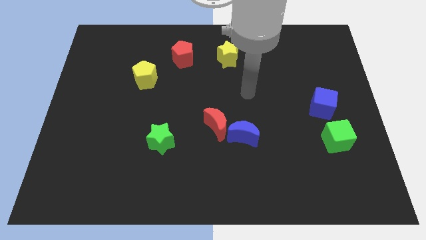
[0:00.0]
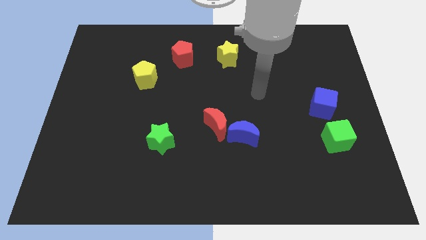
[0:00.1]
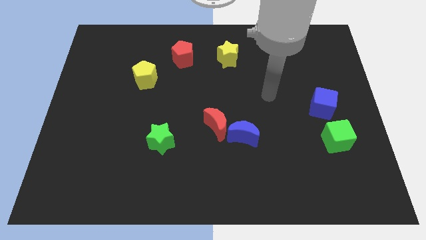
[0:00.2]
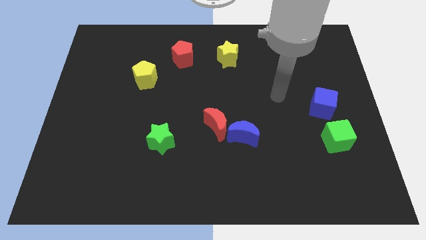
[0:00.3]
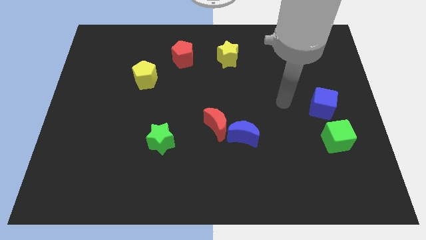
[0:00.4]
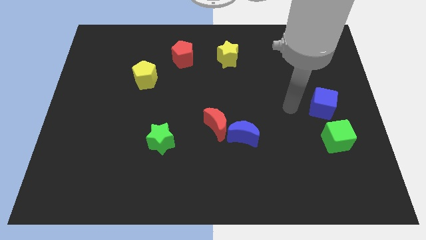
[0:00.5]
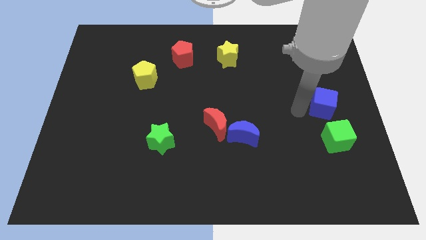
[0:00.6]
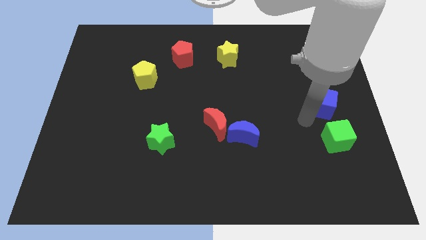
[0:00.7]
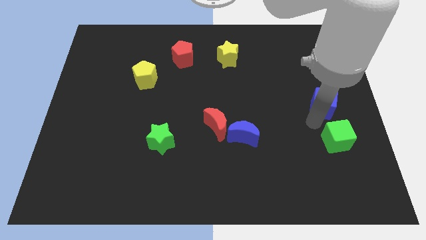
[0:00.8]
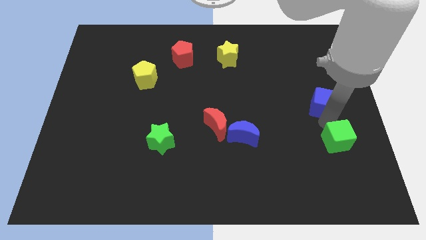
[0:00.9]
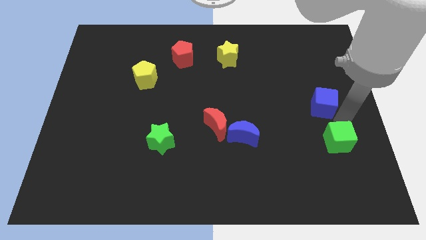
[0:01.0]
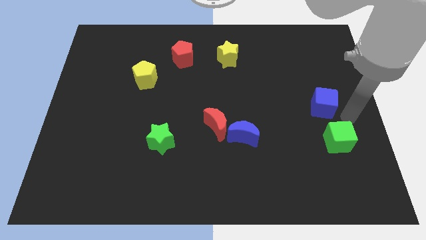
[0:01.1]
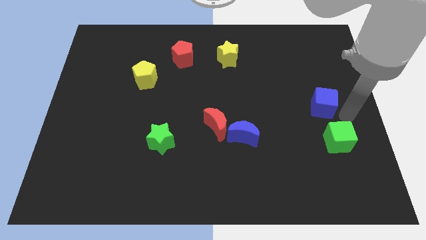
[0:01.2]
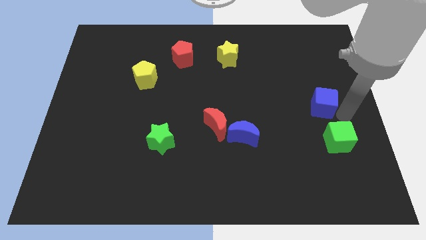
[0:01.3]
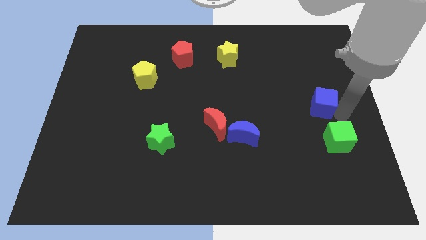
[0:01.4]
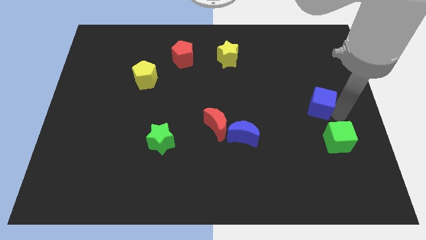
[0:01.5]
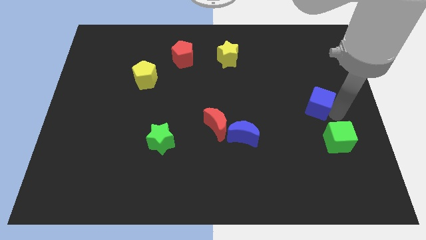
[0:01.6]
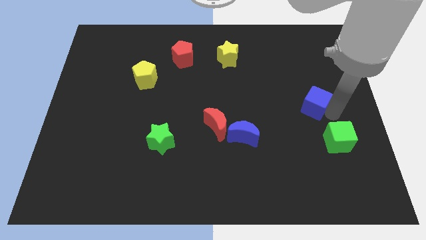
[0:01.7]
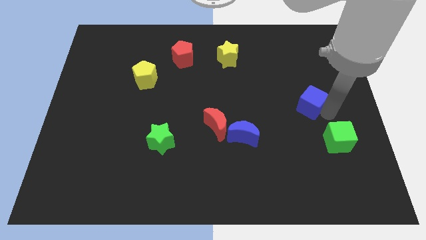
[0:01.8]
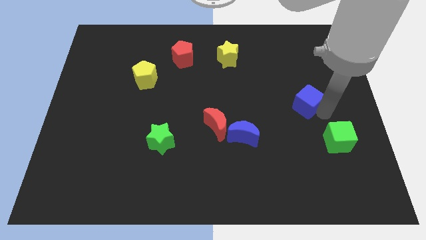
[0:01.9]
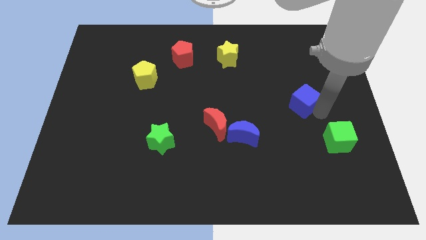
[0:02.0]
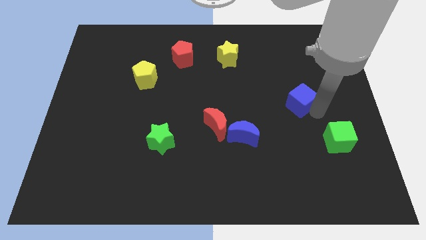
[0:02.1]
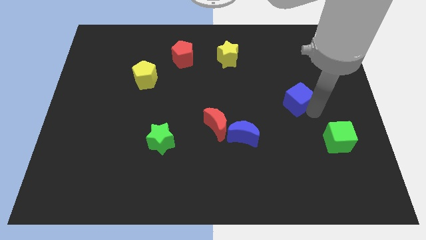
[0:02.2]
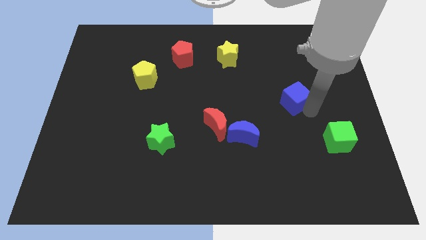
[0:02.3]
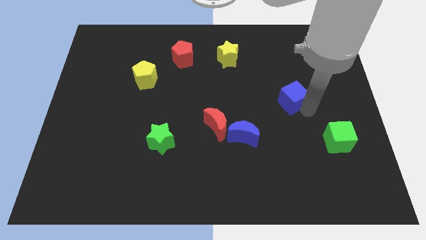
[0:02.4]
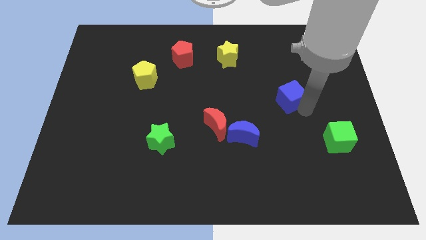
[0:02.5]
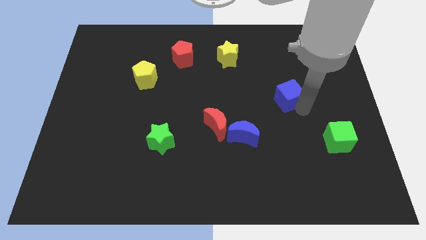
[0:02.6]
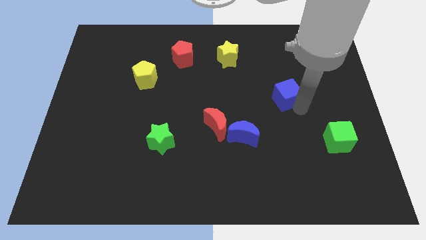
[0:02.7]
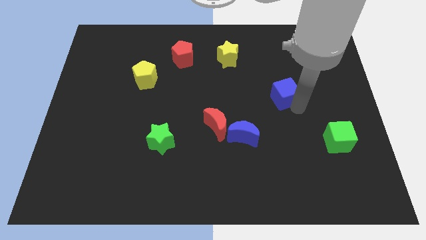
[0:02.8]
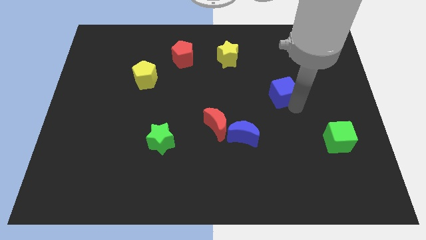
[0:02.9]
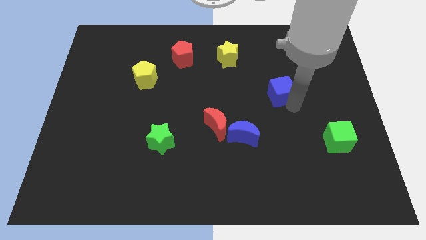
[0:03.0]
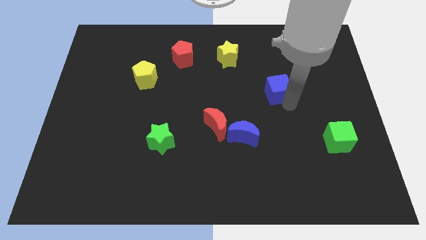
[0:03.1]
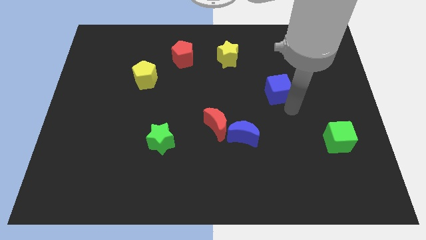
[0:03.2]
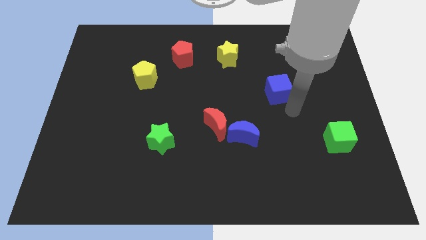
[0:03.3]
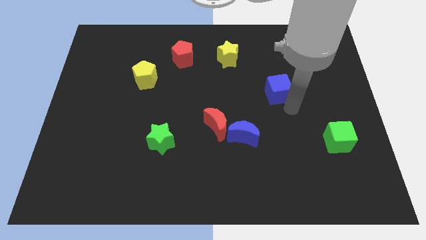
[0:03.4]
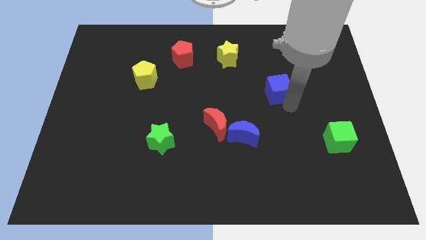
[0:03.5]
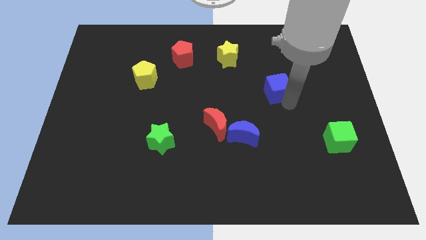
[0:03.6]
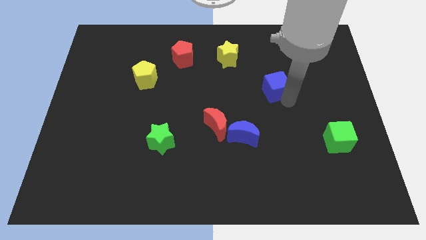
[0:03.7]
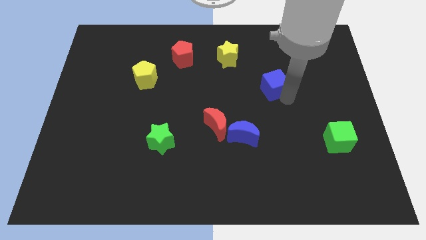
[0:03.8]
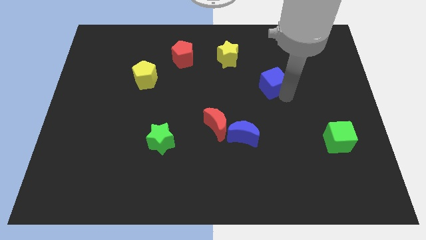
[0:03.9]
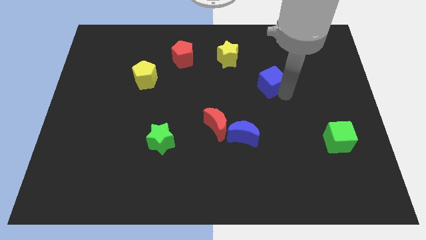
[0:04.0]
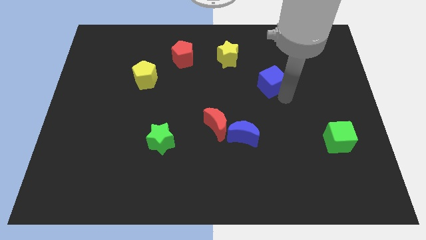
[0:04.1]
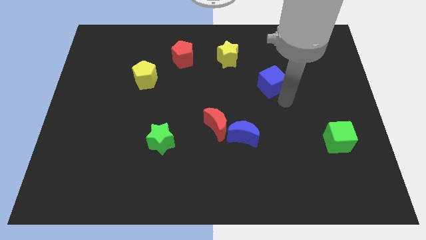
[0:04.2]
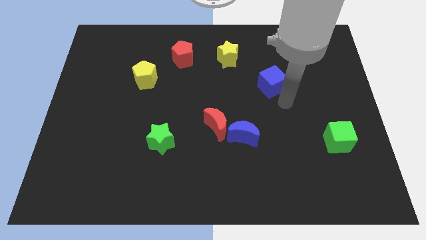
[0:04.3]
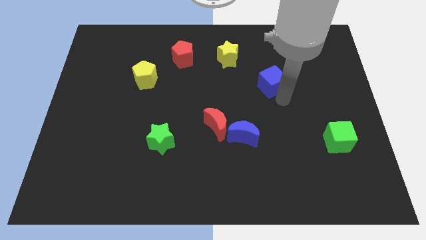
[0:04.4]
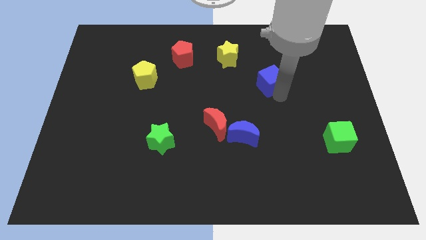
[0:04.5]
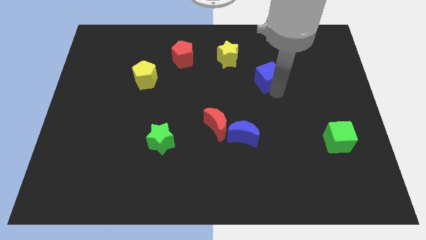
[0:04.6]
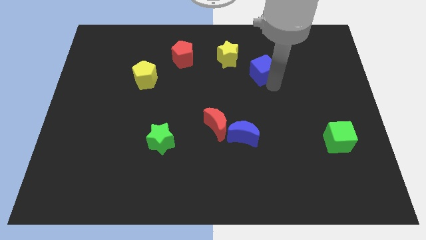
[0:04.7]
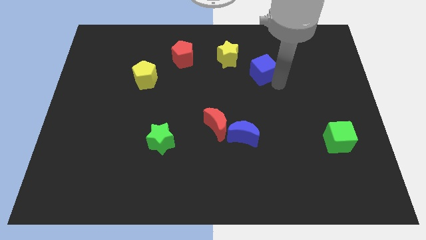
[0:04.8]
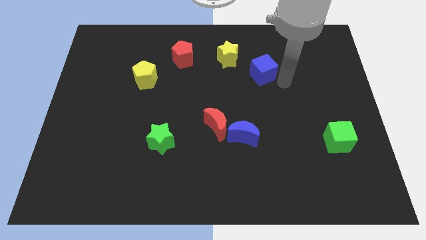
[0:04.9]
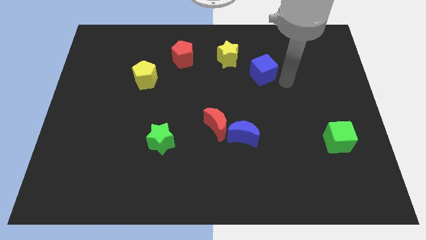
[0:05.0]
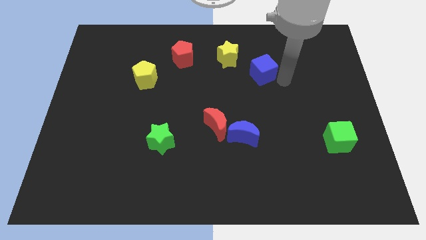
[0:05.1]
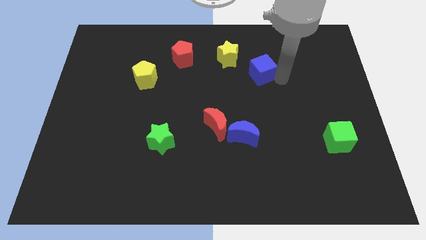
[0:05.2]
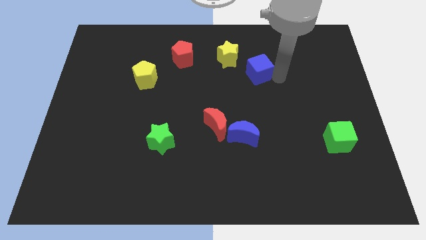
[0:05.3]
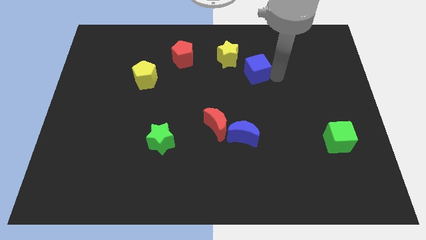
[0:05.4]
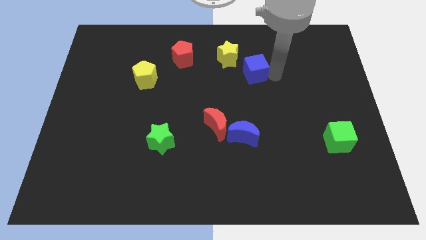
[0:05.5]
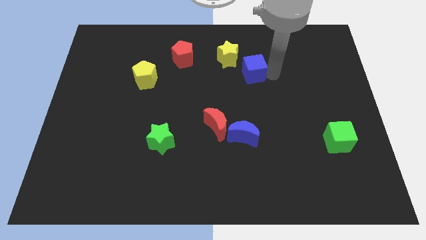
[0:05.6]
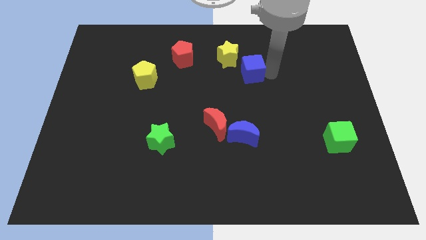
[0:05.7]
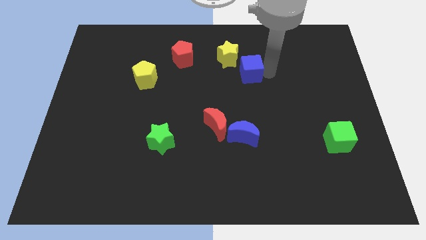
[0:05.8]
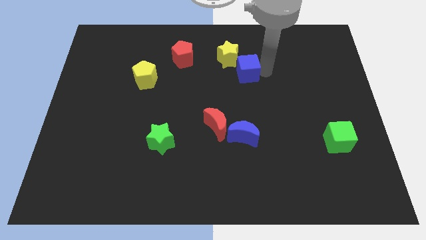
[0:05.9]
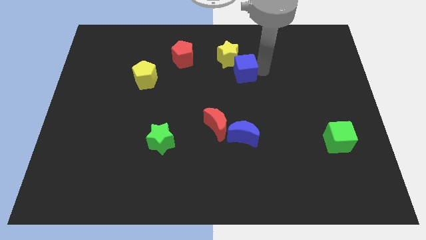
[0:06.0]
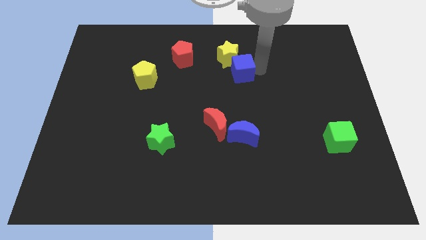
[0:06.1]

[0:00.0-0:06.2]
slide the blue cube next to the yellow star

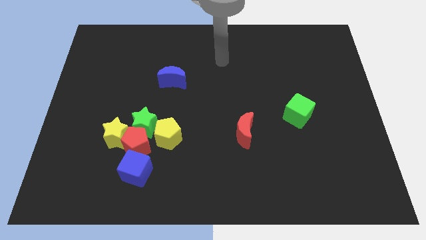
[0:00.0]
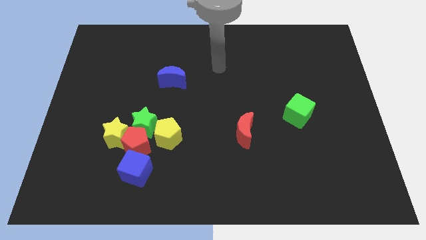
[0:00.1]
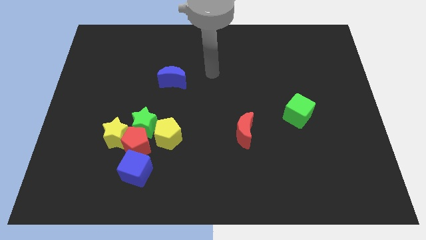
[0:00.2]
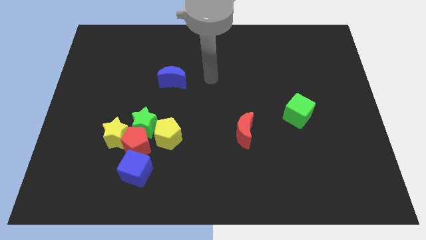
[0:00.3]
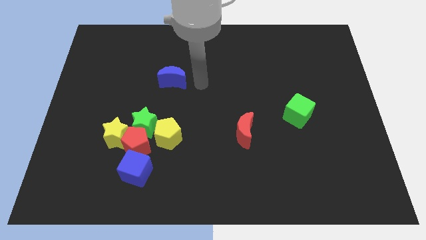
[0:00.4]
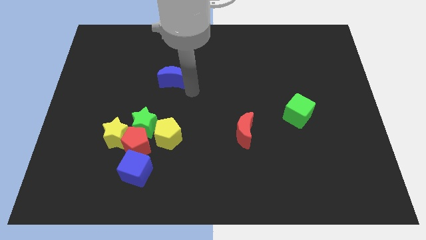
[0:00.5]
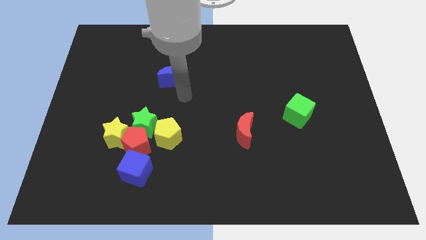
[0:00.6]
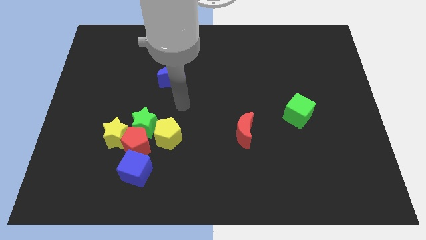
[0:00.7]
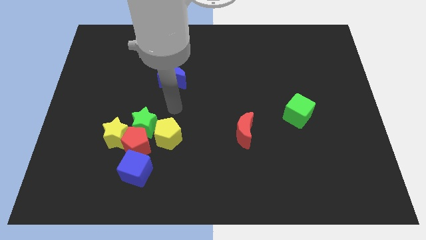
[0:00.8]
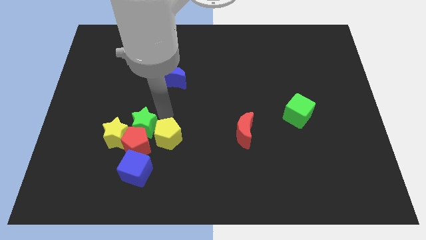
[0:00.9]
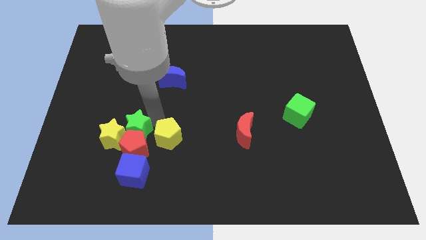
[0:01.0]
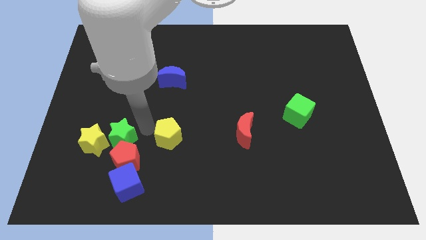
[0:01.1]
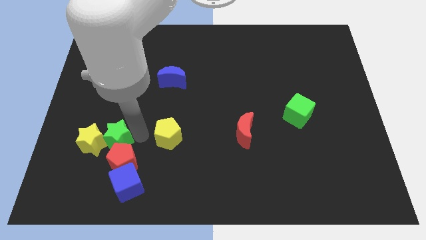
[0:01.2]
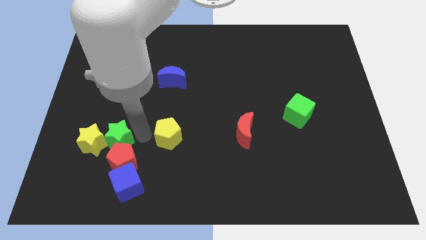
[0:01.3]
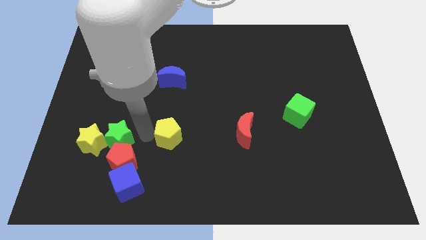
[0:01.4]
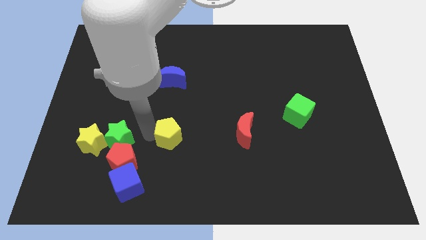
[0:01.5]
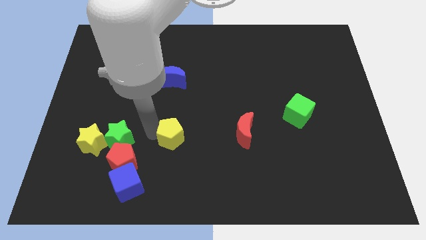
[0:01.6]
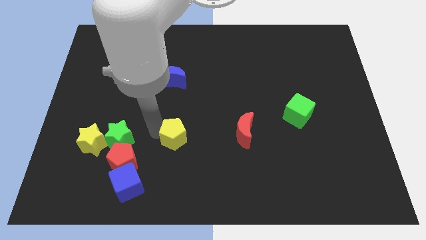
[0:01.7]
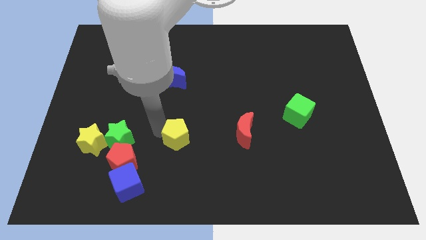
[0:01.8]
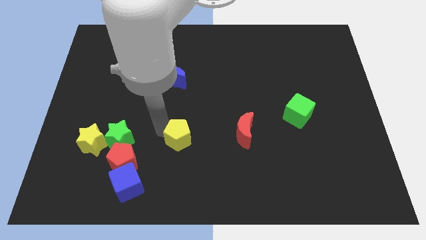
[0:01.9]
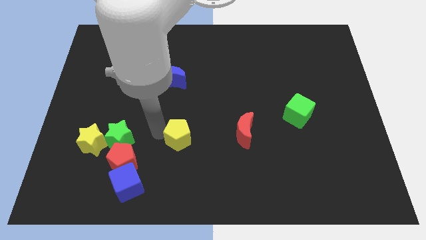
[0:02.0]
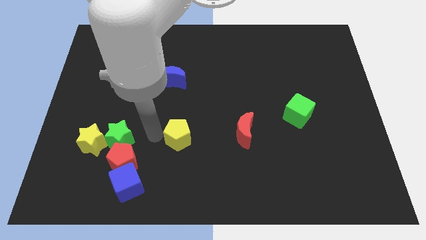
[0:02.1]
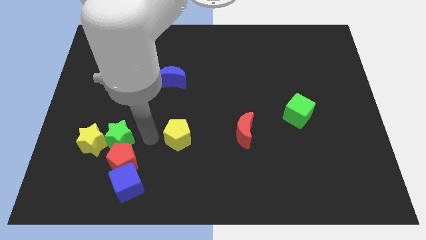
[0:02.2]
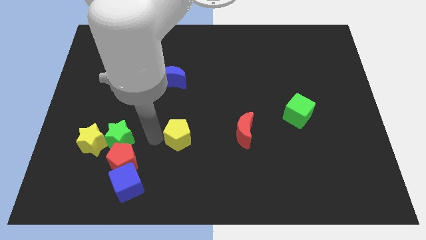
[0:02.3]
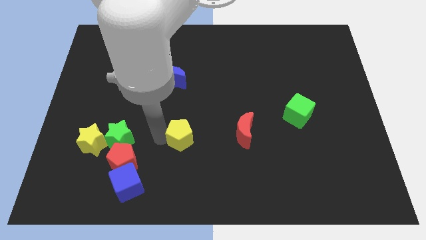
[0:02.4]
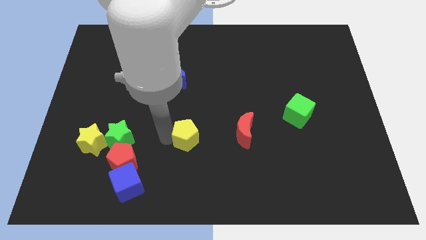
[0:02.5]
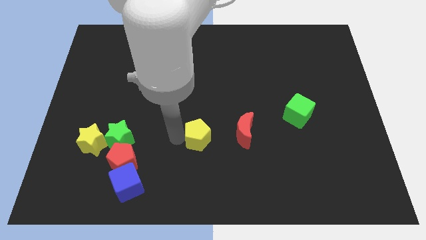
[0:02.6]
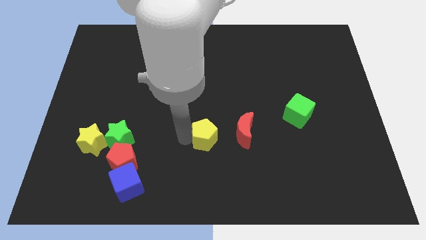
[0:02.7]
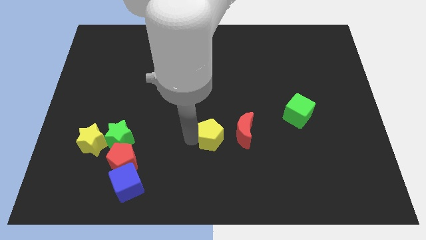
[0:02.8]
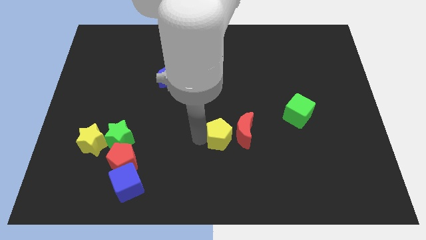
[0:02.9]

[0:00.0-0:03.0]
move the yellow pentagon towards the red moon
